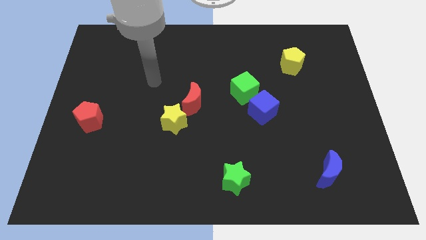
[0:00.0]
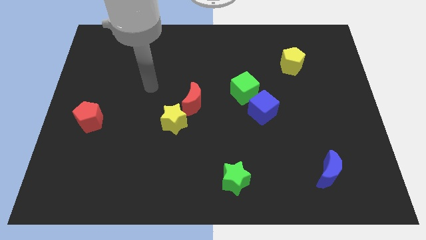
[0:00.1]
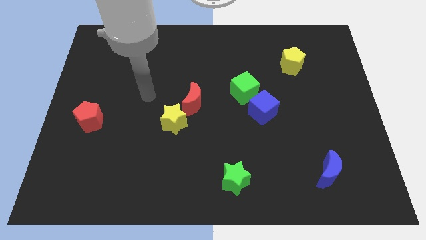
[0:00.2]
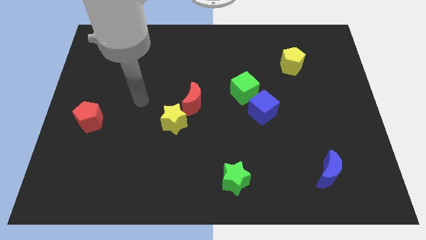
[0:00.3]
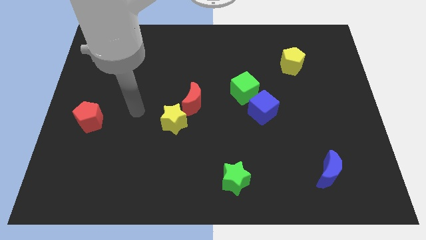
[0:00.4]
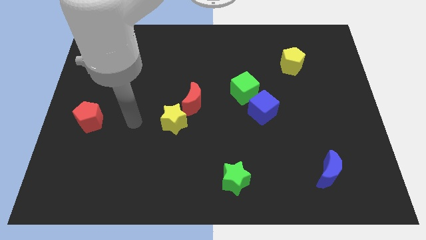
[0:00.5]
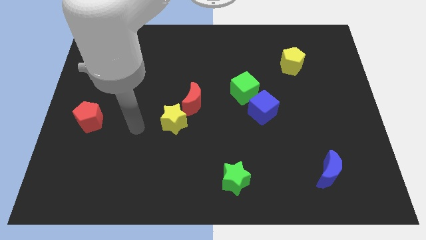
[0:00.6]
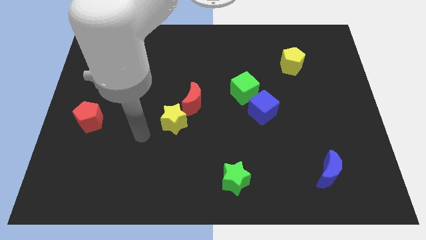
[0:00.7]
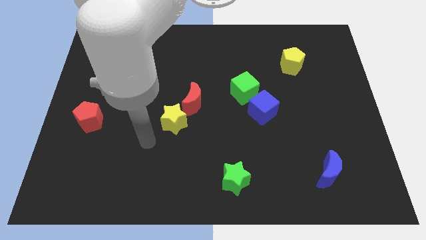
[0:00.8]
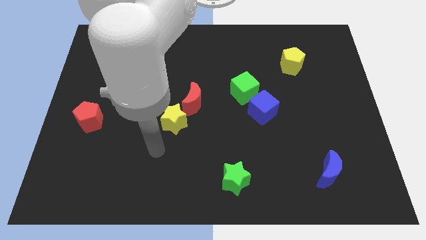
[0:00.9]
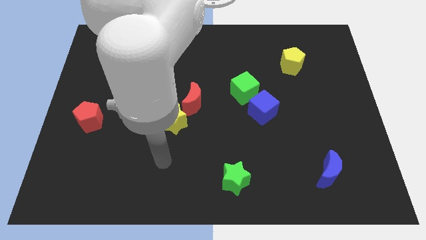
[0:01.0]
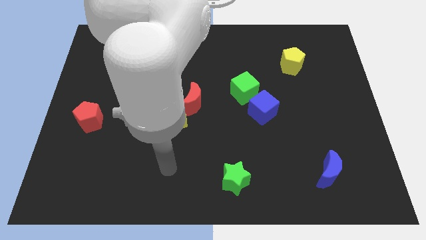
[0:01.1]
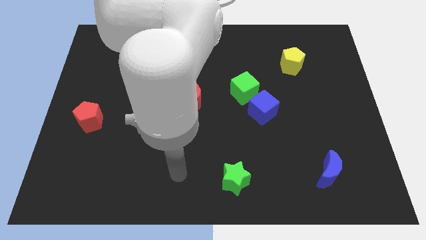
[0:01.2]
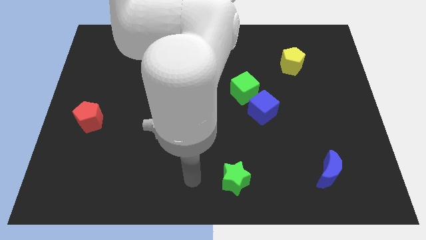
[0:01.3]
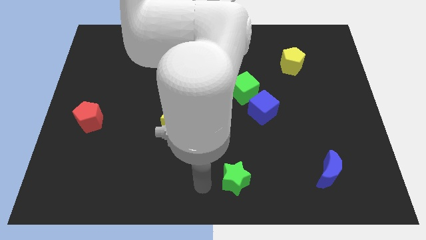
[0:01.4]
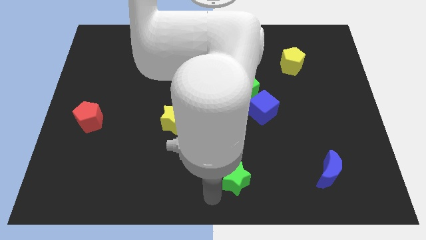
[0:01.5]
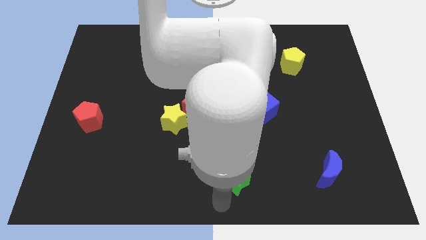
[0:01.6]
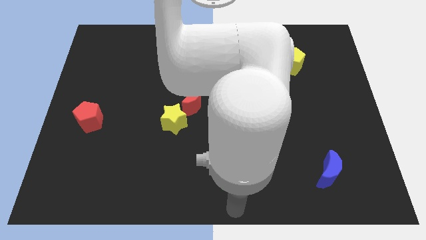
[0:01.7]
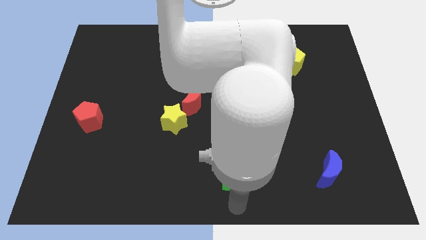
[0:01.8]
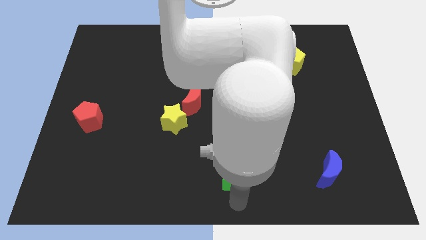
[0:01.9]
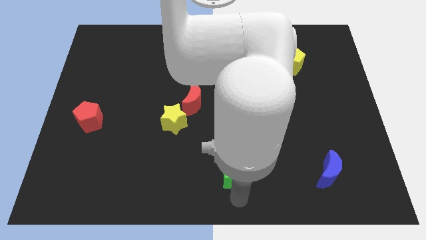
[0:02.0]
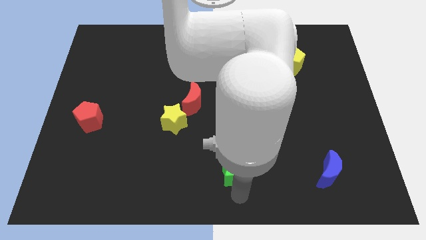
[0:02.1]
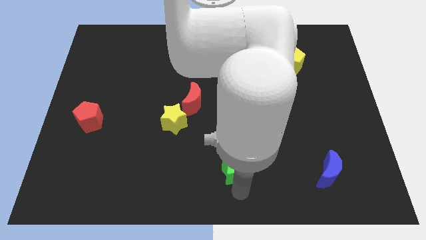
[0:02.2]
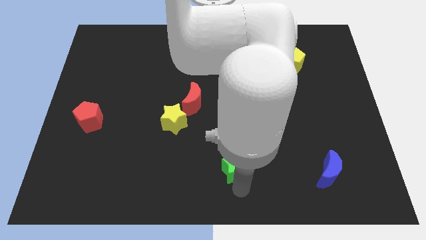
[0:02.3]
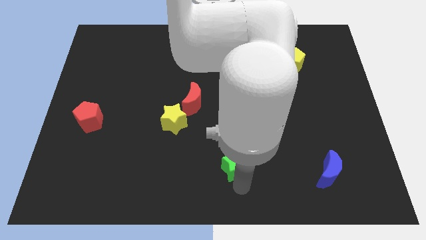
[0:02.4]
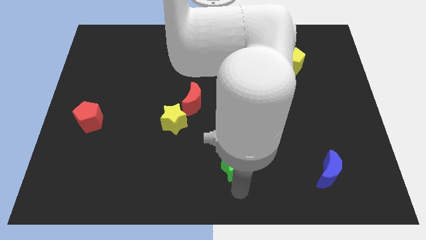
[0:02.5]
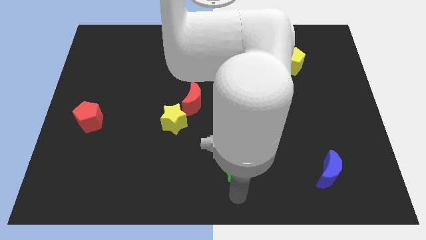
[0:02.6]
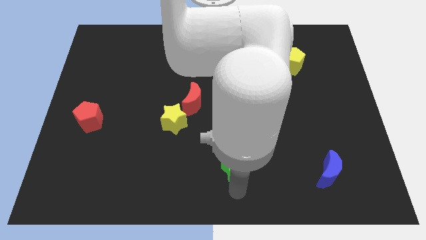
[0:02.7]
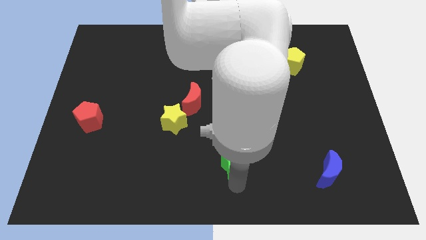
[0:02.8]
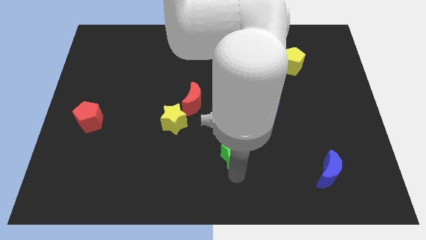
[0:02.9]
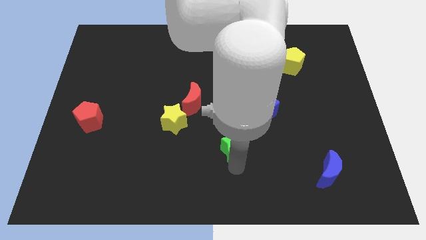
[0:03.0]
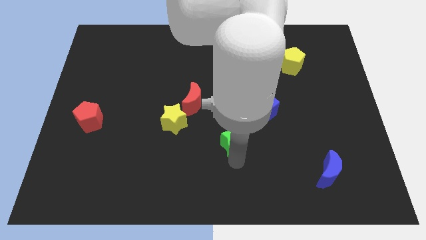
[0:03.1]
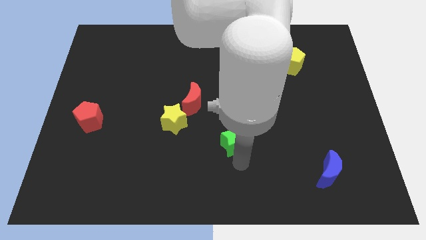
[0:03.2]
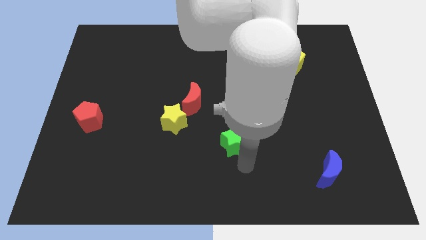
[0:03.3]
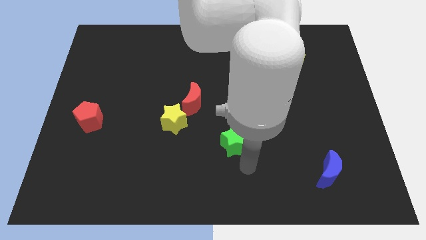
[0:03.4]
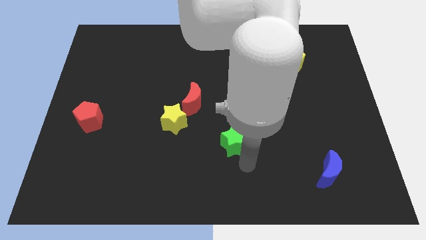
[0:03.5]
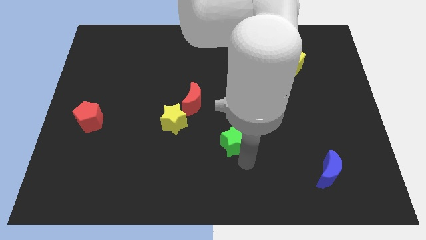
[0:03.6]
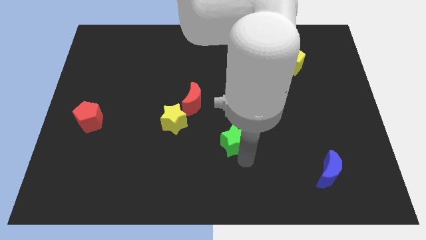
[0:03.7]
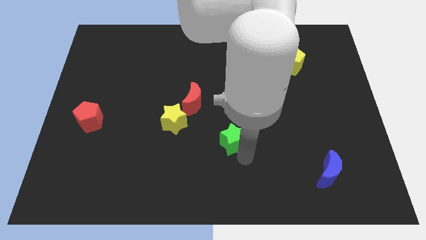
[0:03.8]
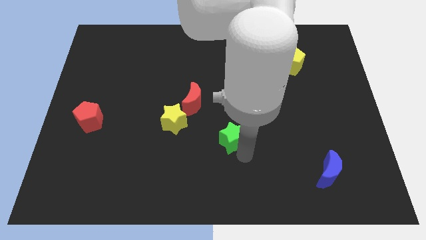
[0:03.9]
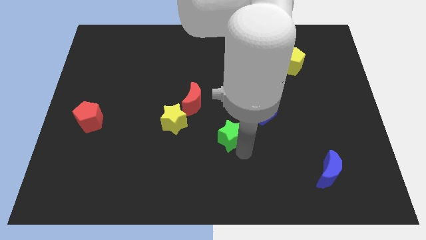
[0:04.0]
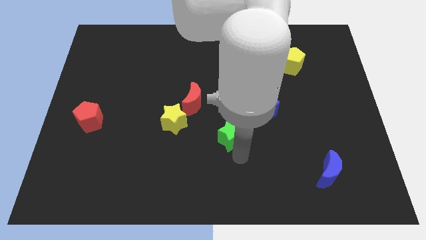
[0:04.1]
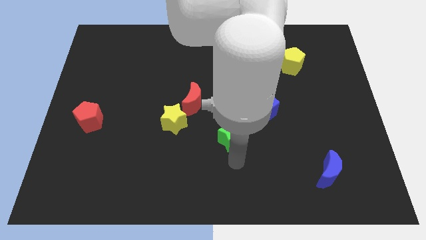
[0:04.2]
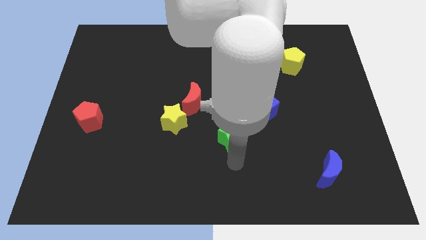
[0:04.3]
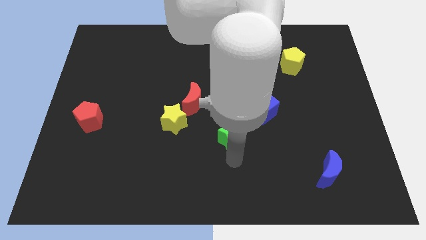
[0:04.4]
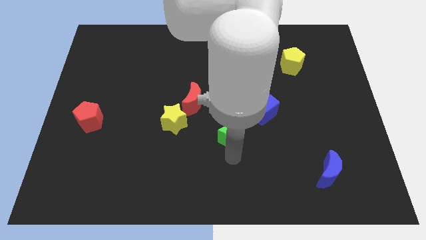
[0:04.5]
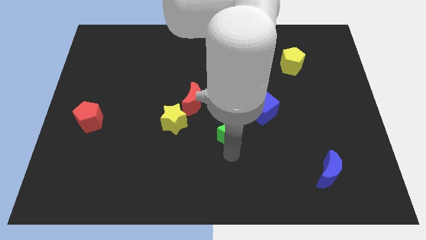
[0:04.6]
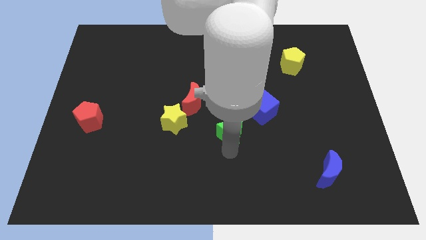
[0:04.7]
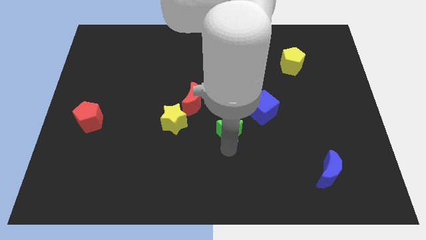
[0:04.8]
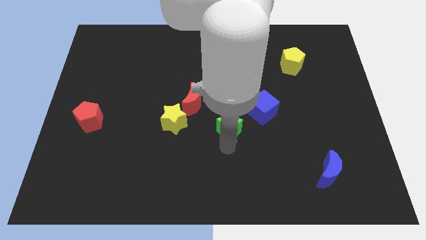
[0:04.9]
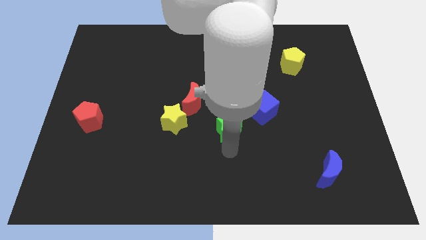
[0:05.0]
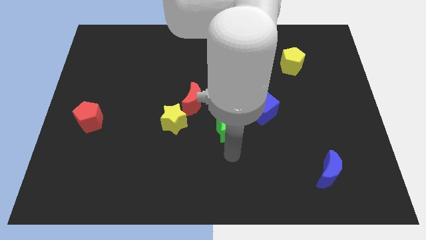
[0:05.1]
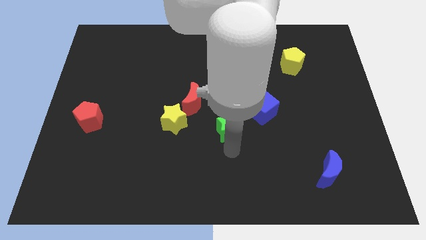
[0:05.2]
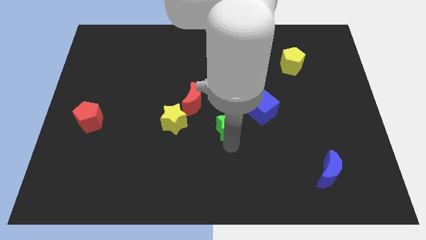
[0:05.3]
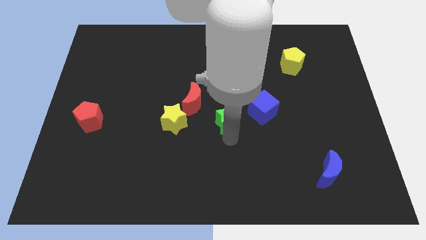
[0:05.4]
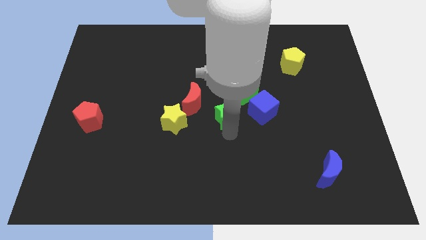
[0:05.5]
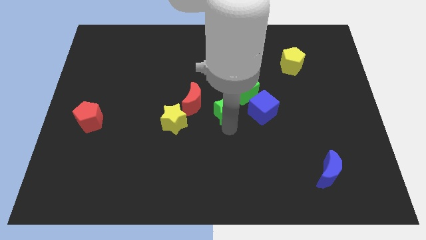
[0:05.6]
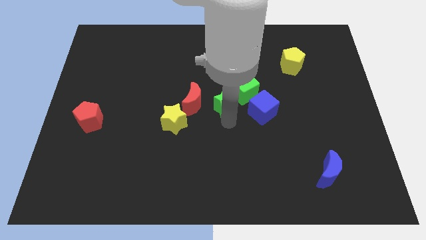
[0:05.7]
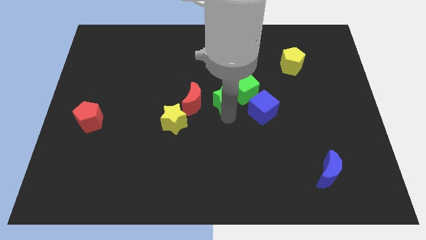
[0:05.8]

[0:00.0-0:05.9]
move the green star up

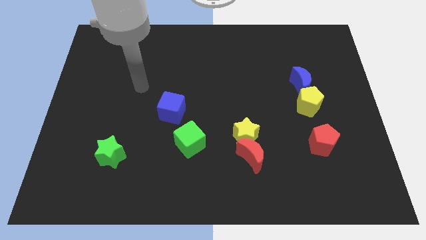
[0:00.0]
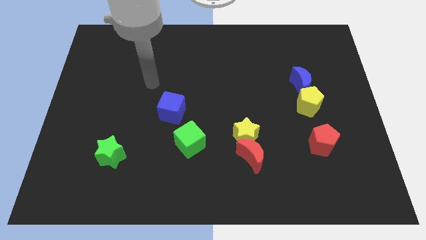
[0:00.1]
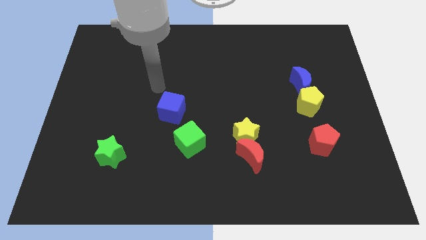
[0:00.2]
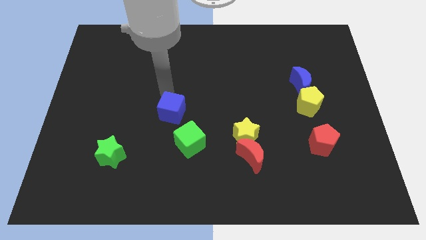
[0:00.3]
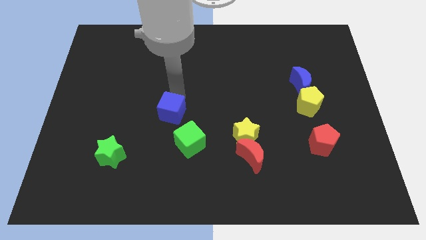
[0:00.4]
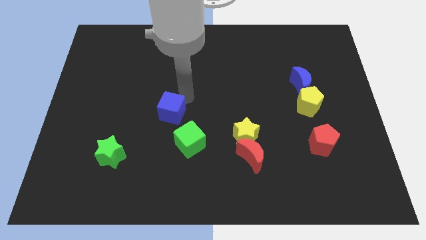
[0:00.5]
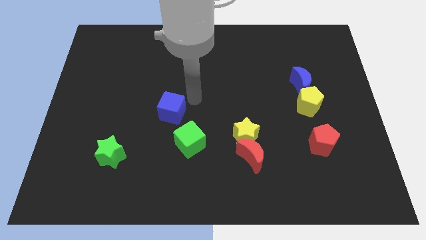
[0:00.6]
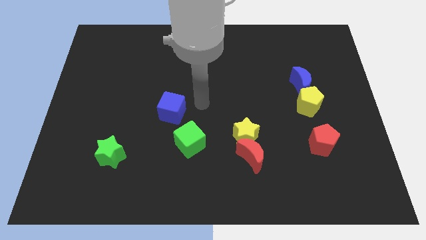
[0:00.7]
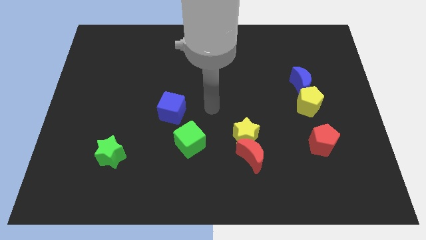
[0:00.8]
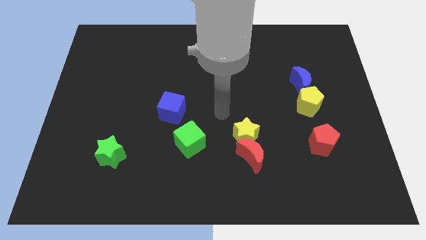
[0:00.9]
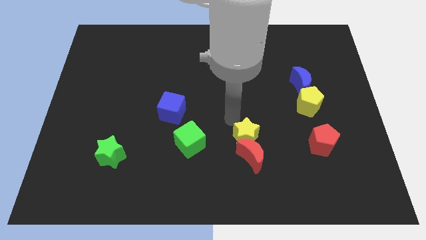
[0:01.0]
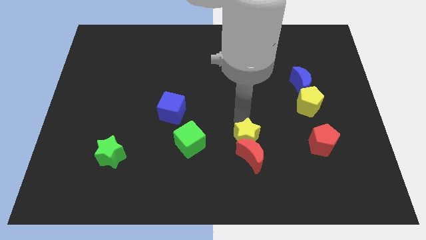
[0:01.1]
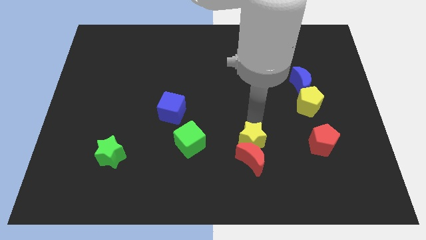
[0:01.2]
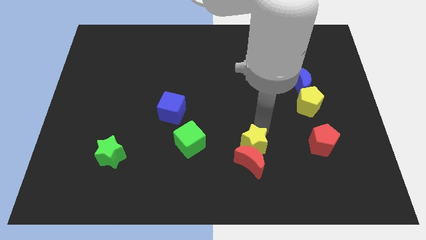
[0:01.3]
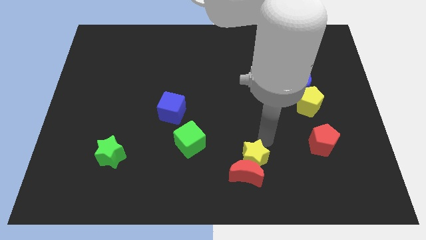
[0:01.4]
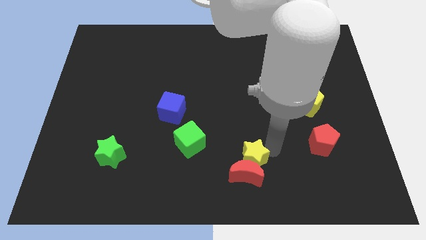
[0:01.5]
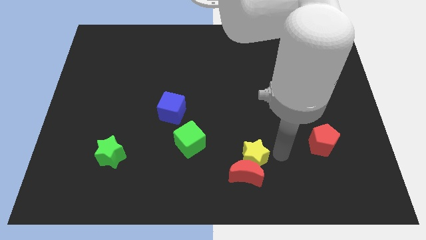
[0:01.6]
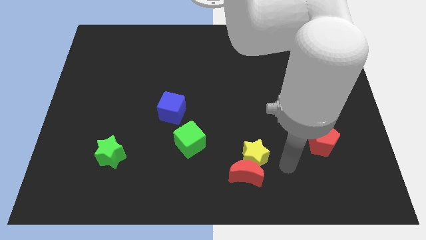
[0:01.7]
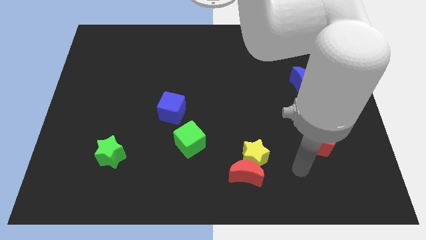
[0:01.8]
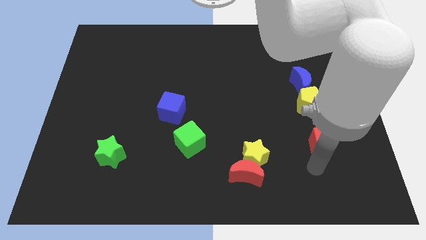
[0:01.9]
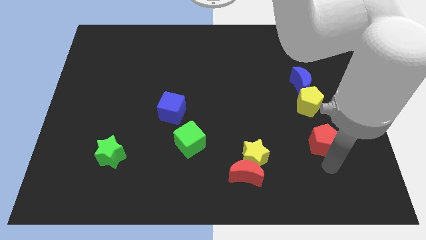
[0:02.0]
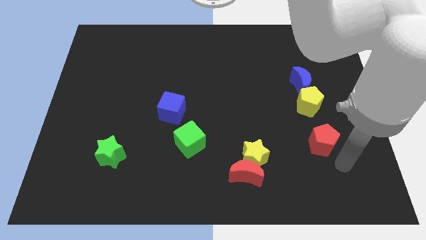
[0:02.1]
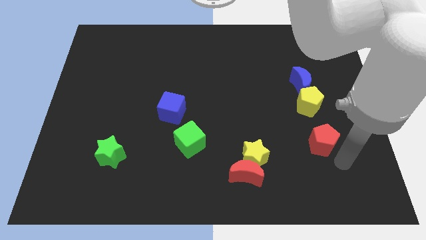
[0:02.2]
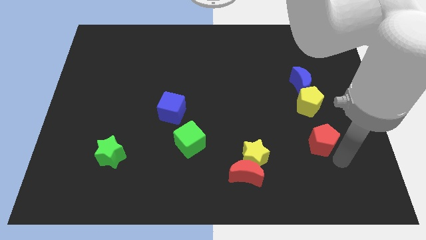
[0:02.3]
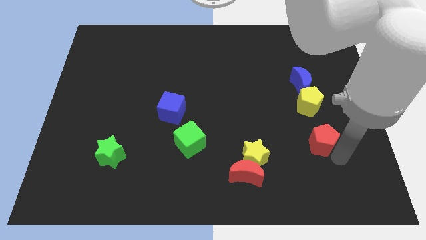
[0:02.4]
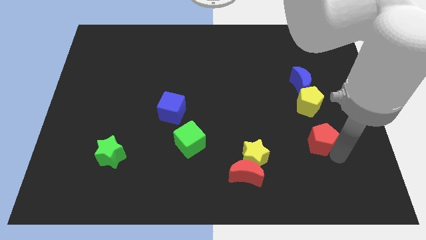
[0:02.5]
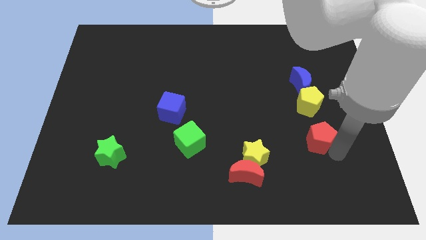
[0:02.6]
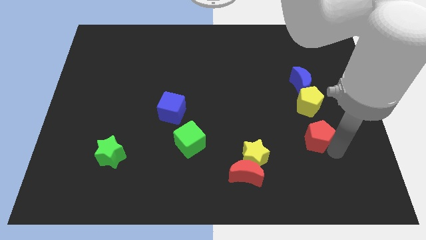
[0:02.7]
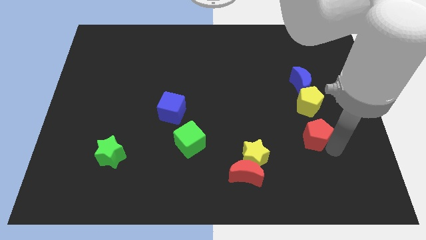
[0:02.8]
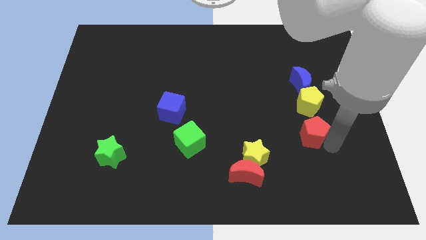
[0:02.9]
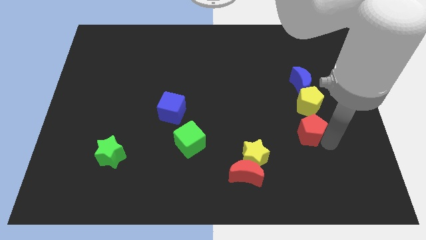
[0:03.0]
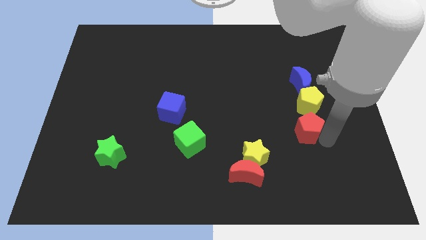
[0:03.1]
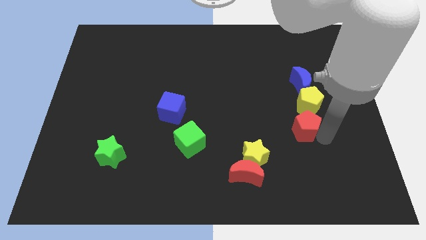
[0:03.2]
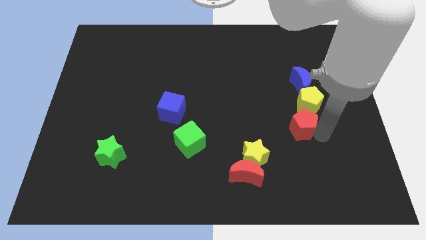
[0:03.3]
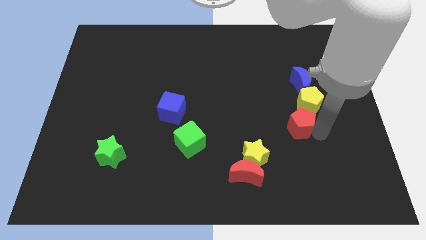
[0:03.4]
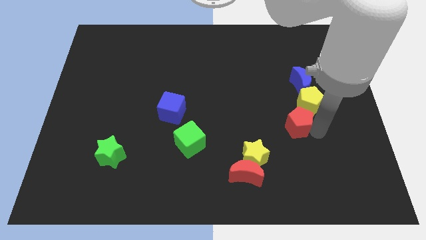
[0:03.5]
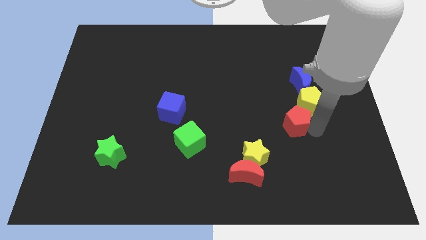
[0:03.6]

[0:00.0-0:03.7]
slightly slide the red pentagon up and to the left diagonally
